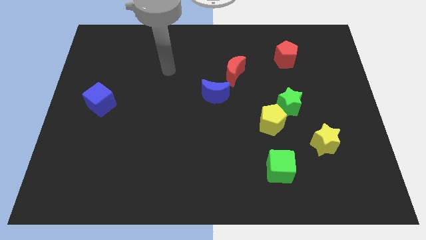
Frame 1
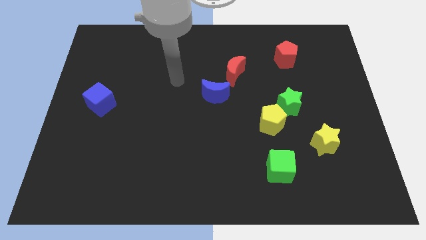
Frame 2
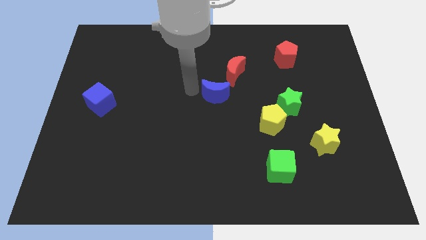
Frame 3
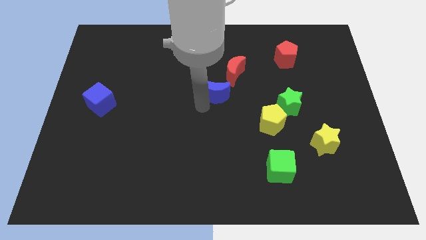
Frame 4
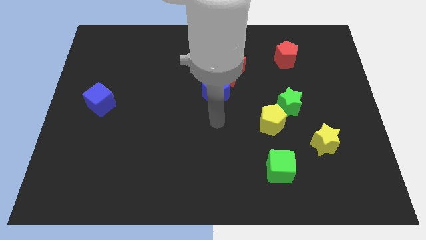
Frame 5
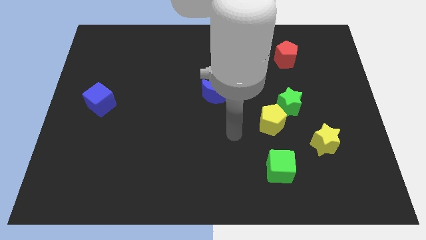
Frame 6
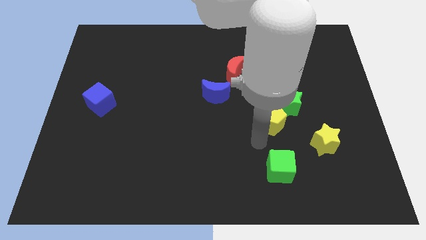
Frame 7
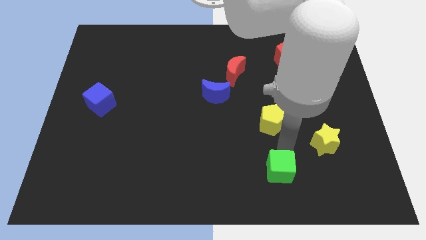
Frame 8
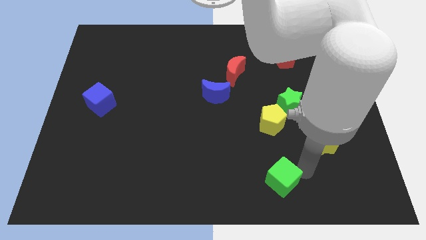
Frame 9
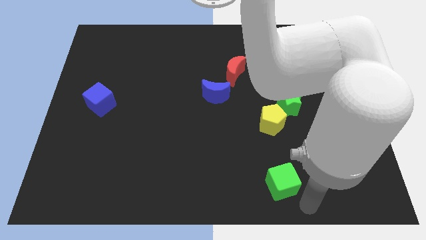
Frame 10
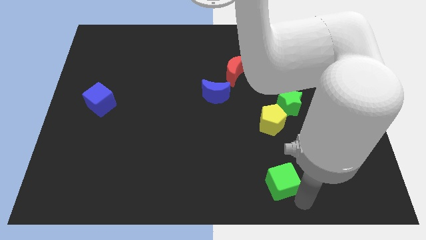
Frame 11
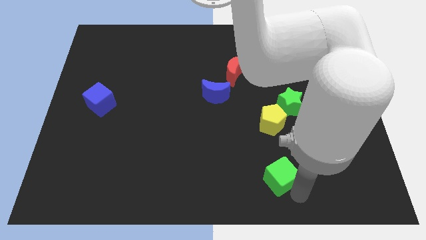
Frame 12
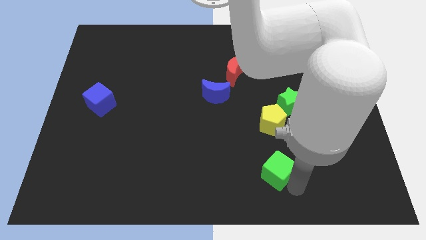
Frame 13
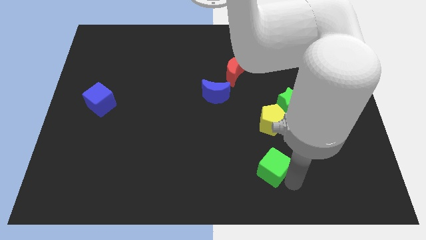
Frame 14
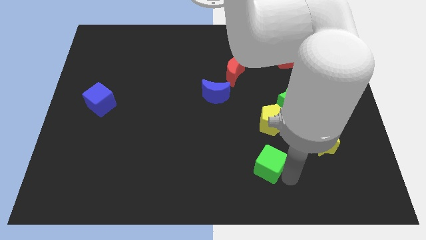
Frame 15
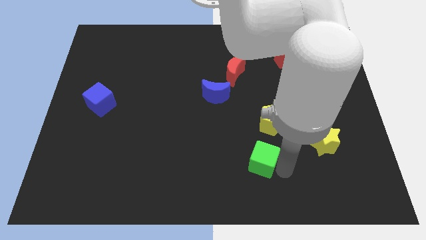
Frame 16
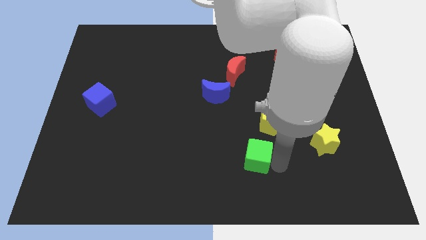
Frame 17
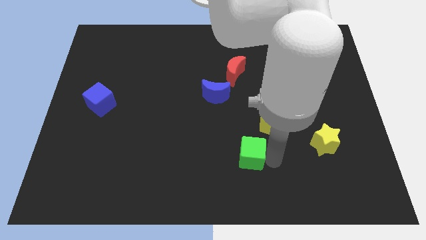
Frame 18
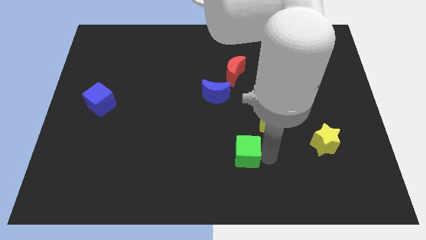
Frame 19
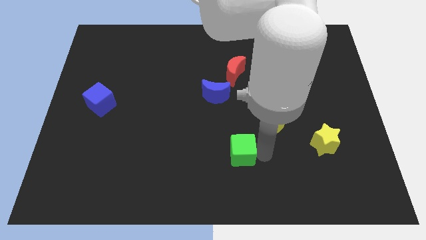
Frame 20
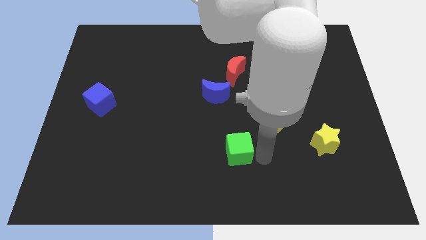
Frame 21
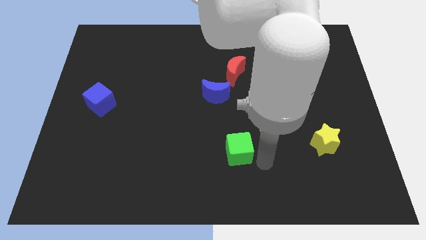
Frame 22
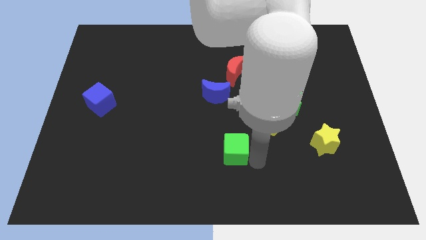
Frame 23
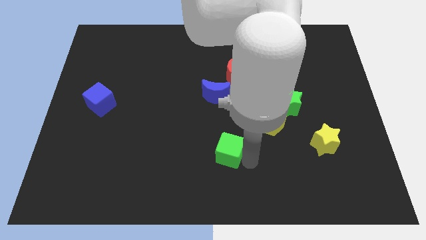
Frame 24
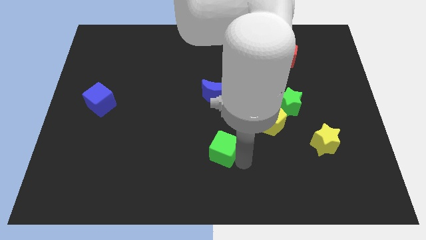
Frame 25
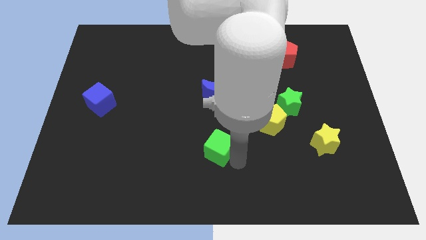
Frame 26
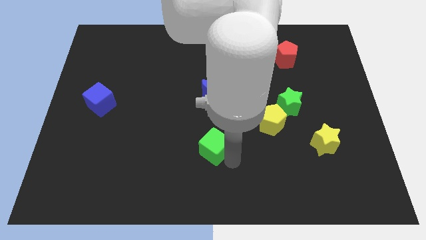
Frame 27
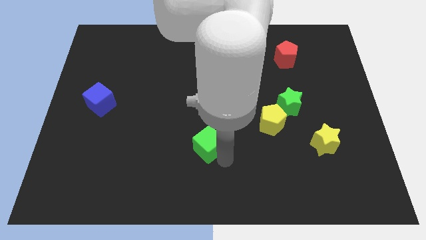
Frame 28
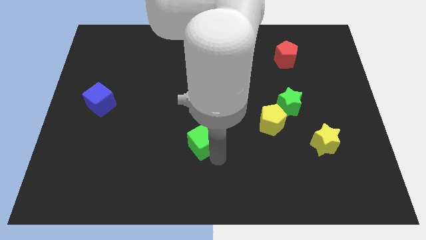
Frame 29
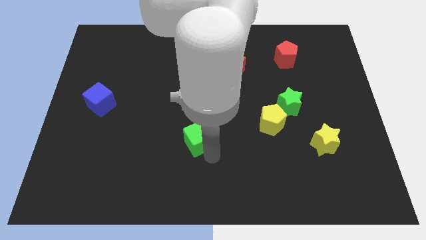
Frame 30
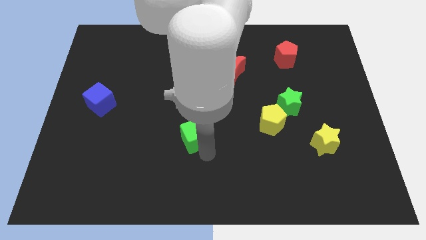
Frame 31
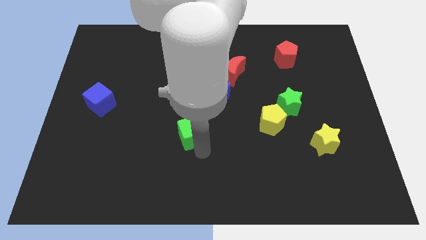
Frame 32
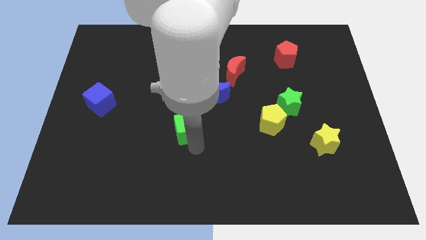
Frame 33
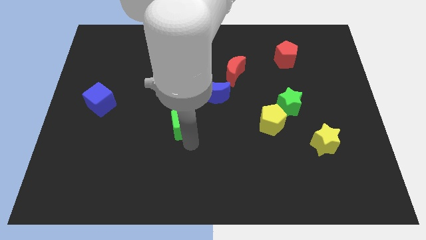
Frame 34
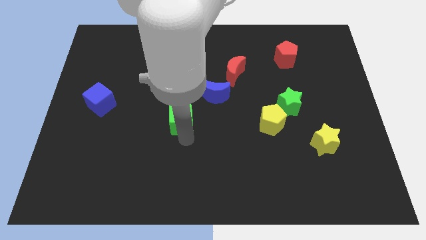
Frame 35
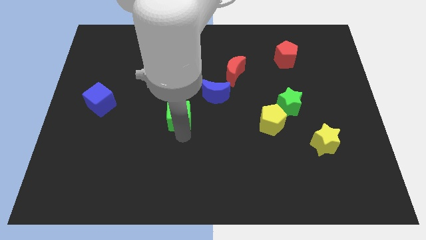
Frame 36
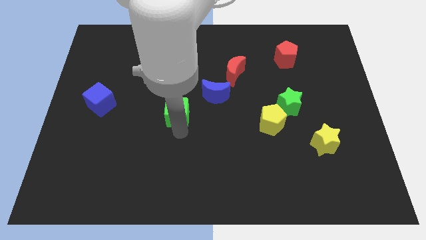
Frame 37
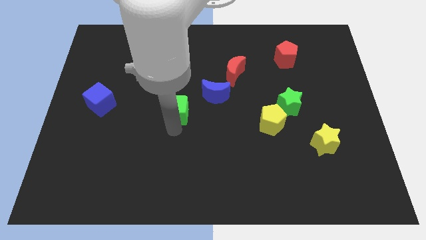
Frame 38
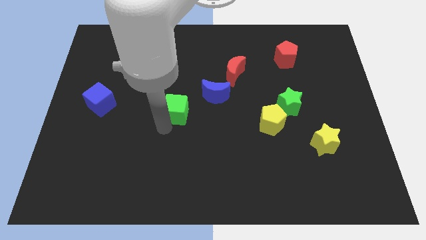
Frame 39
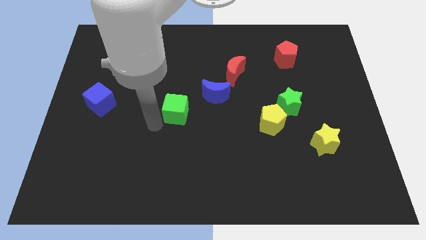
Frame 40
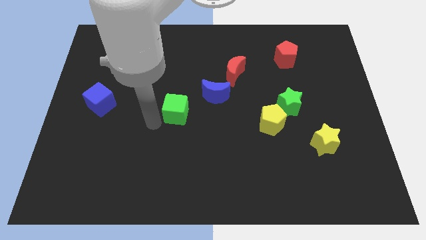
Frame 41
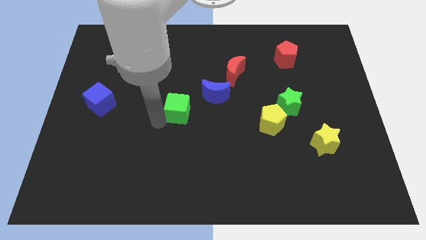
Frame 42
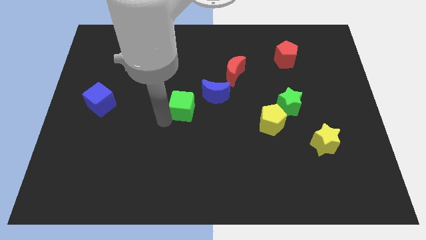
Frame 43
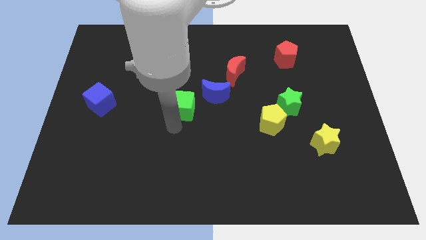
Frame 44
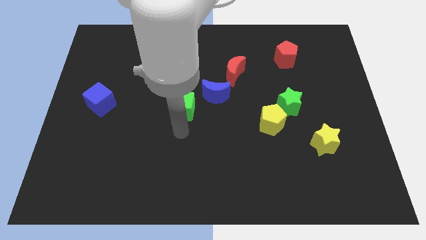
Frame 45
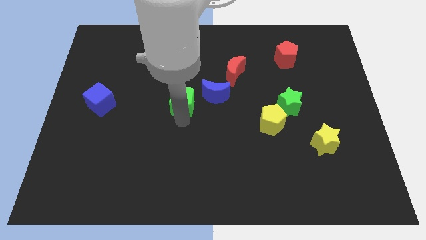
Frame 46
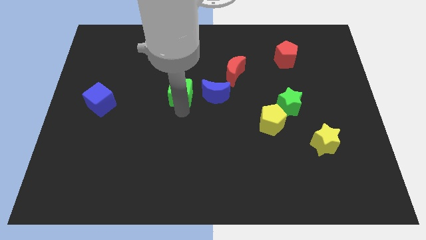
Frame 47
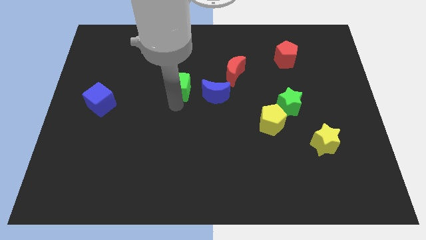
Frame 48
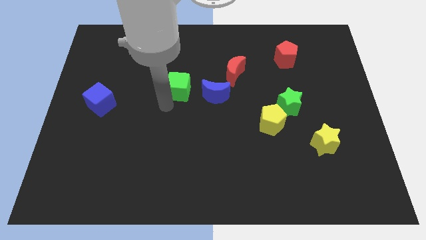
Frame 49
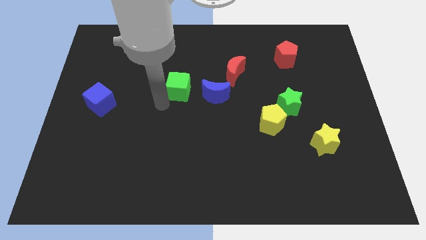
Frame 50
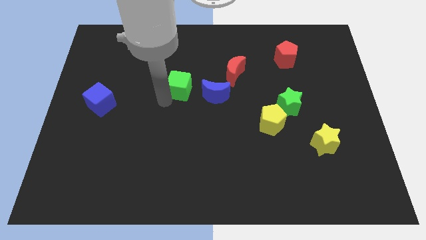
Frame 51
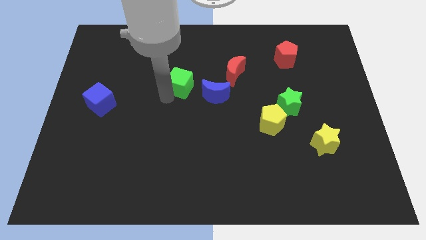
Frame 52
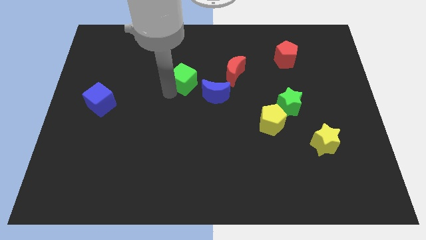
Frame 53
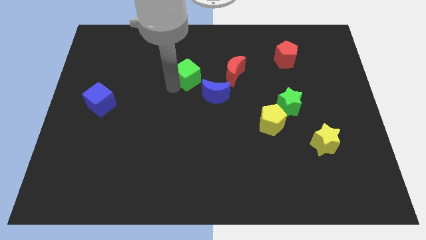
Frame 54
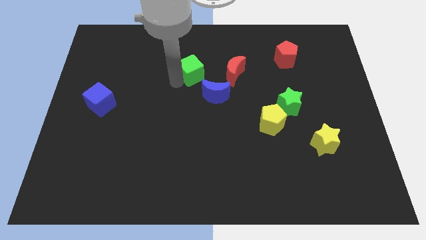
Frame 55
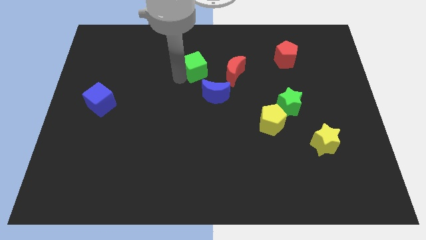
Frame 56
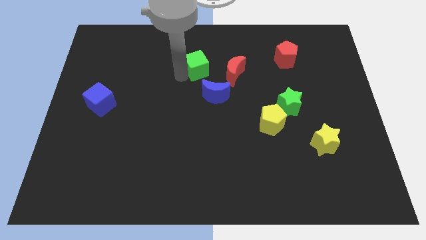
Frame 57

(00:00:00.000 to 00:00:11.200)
push the green cube to the top side of the blue moon

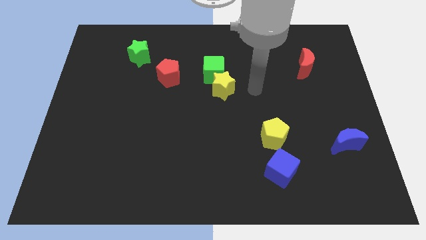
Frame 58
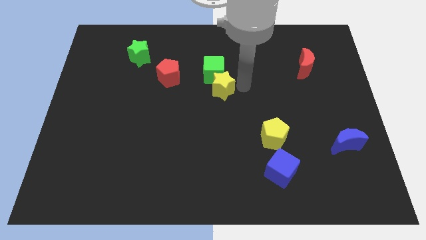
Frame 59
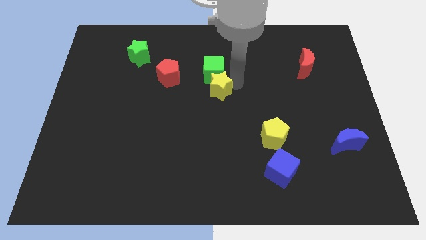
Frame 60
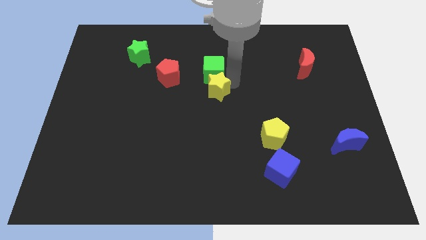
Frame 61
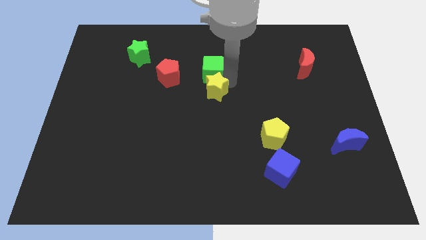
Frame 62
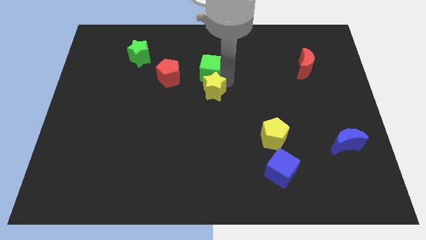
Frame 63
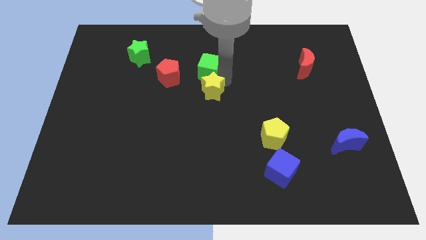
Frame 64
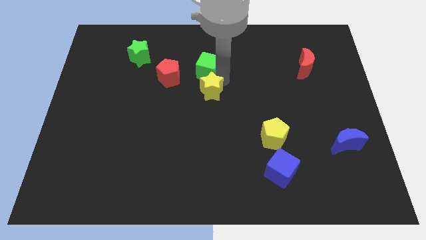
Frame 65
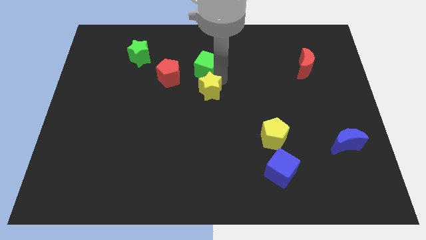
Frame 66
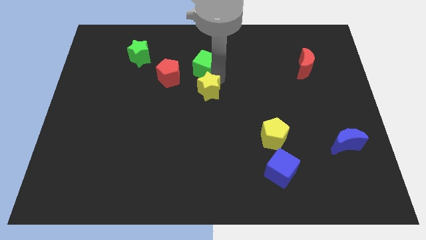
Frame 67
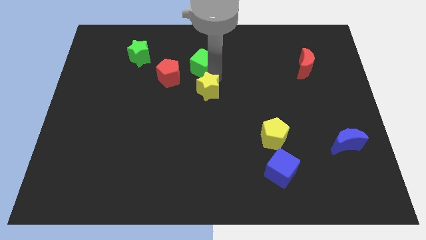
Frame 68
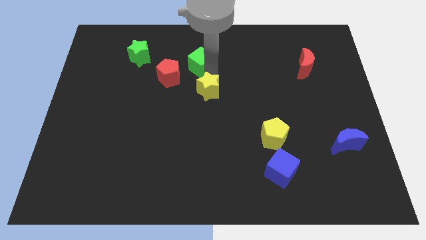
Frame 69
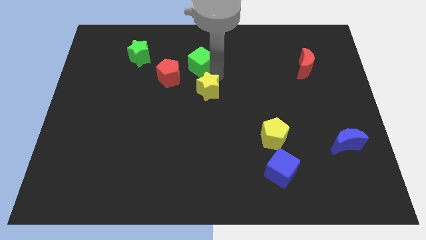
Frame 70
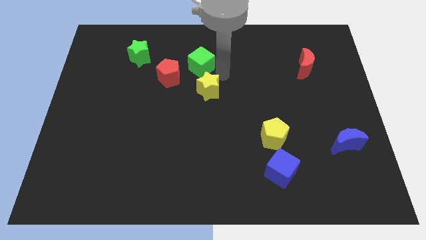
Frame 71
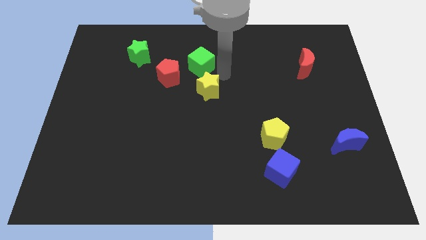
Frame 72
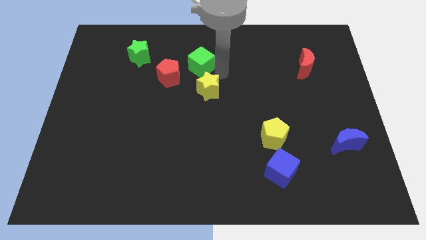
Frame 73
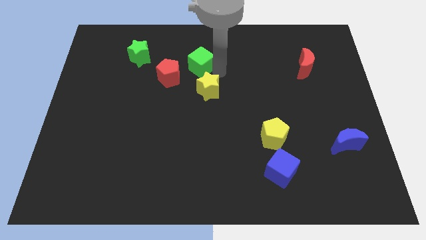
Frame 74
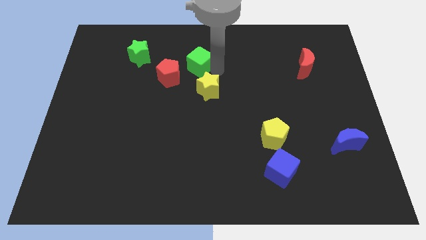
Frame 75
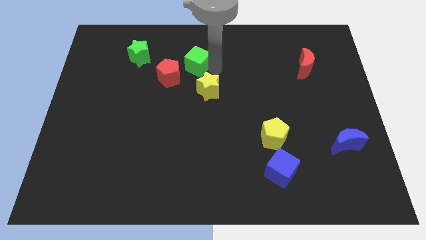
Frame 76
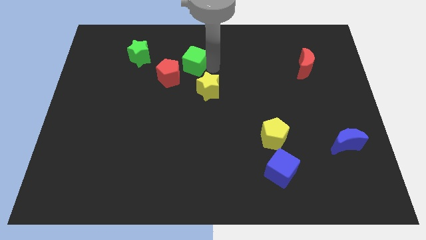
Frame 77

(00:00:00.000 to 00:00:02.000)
slide the green cube to the right side of the green star
